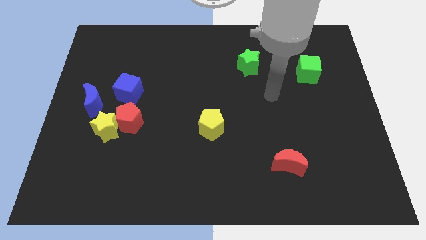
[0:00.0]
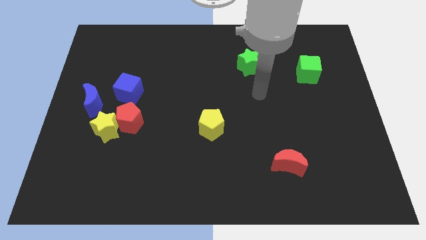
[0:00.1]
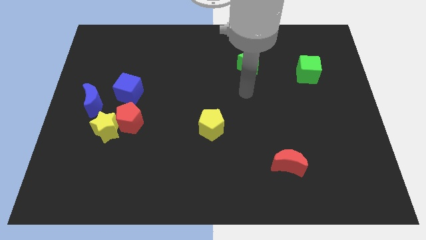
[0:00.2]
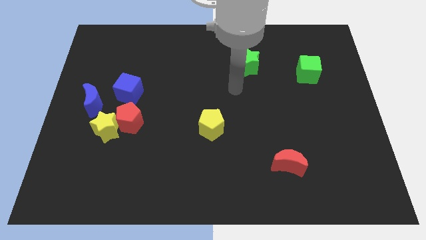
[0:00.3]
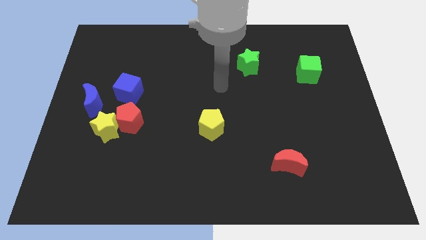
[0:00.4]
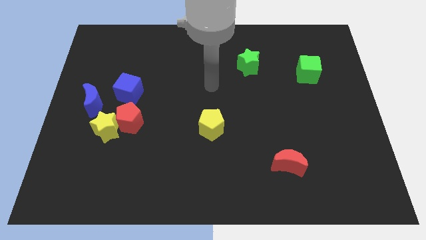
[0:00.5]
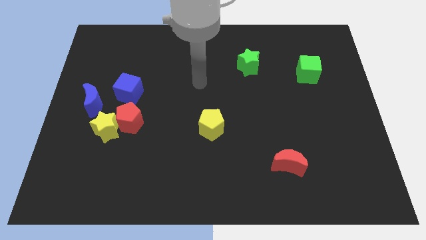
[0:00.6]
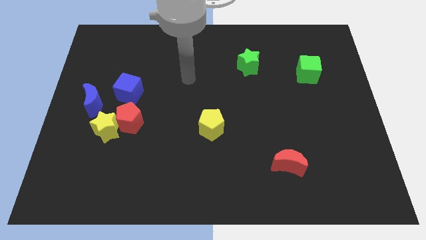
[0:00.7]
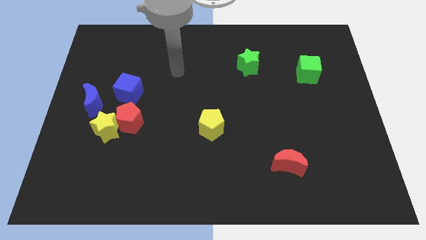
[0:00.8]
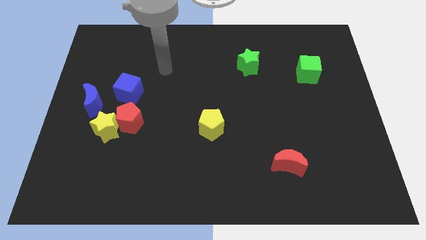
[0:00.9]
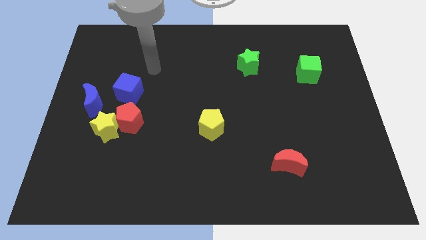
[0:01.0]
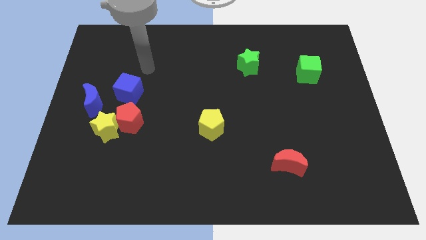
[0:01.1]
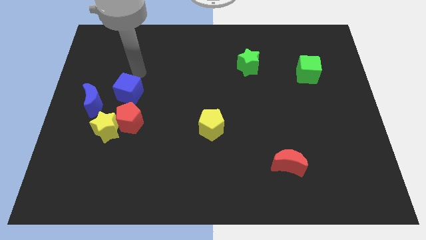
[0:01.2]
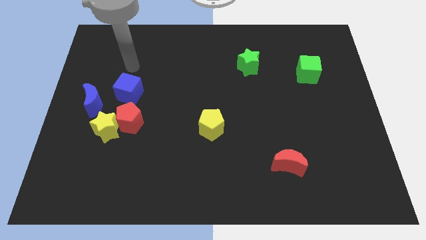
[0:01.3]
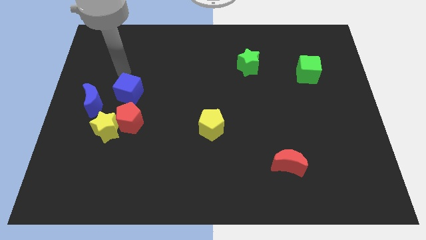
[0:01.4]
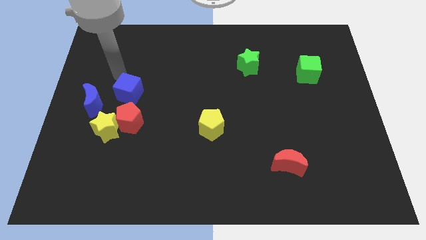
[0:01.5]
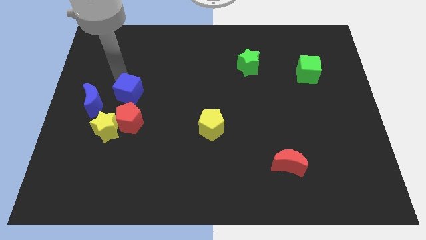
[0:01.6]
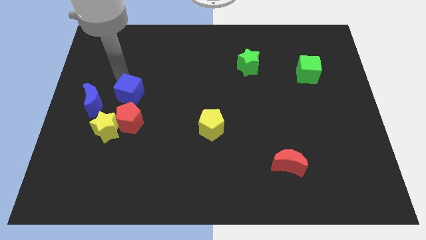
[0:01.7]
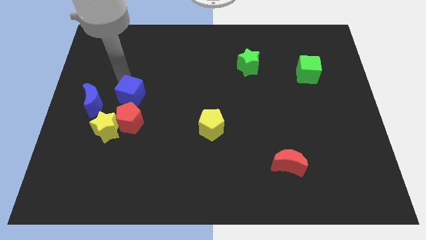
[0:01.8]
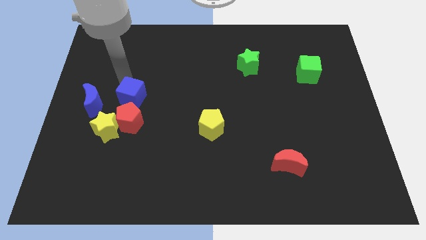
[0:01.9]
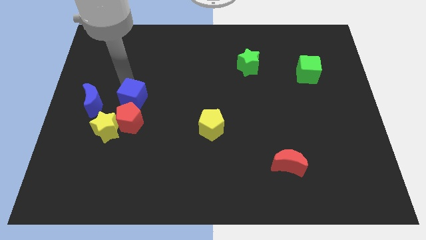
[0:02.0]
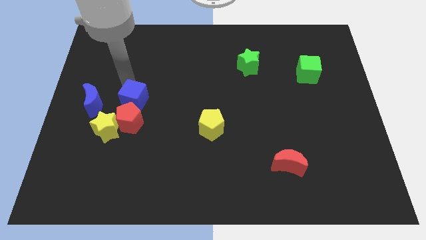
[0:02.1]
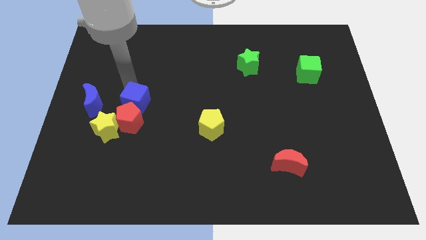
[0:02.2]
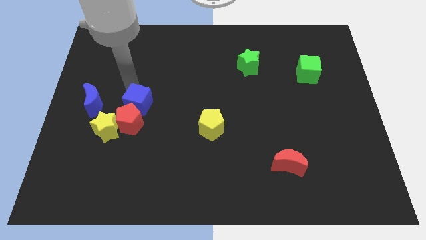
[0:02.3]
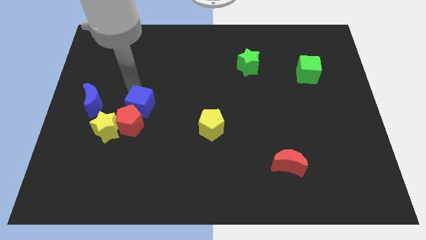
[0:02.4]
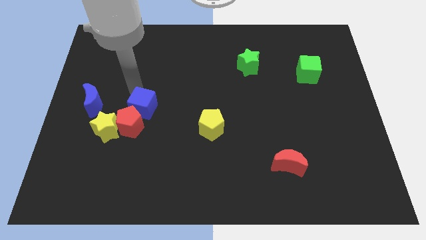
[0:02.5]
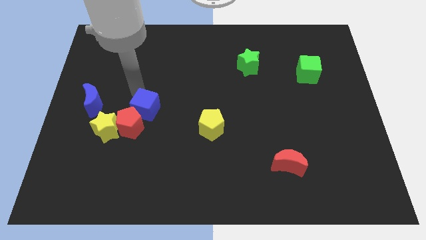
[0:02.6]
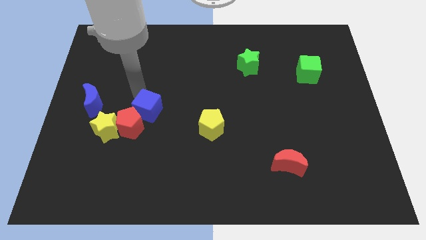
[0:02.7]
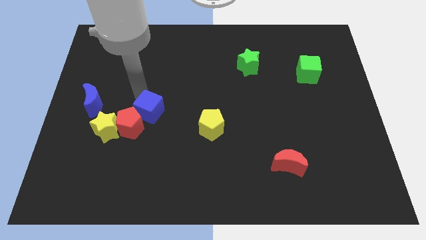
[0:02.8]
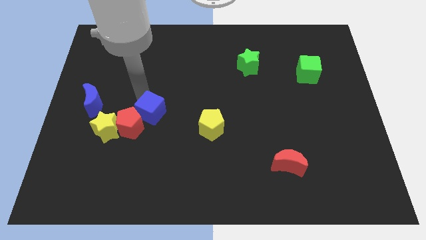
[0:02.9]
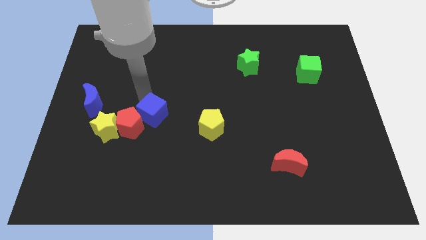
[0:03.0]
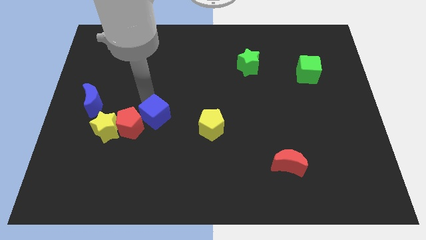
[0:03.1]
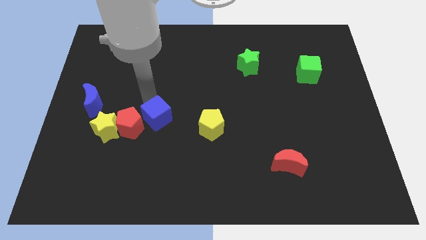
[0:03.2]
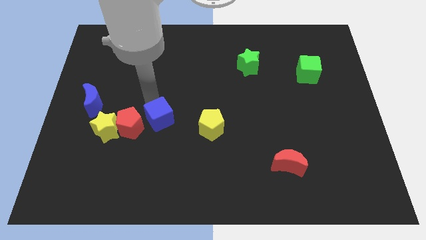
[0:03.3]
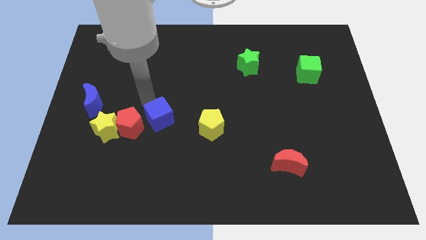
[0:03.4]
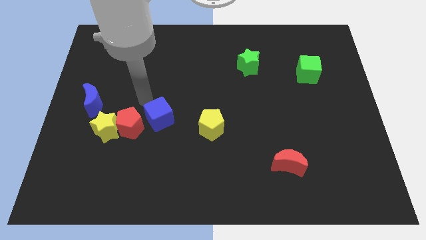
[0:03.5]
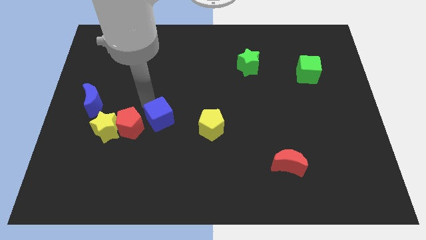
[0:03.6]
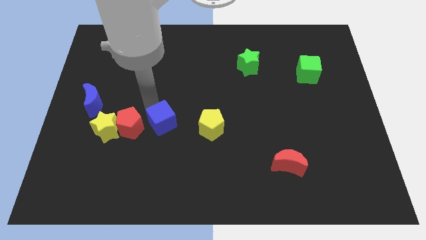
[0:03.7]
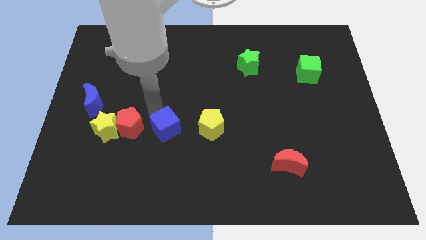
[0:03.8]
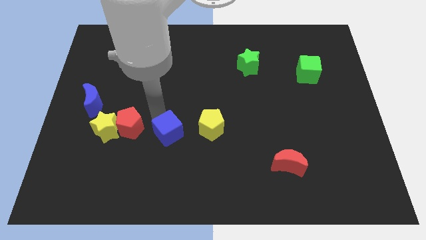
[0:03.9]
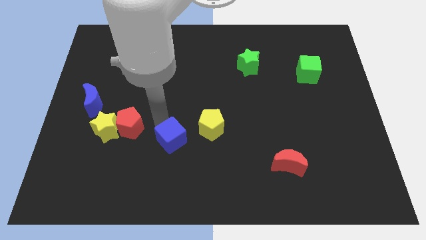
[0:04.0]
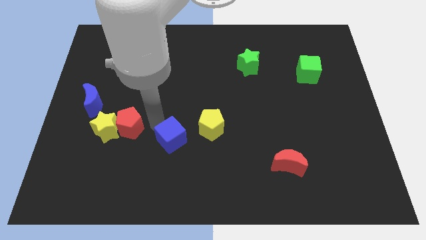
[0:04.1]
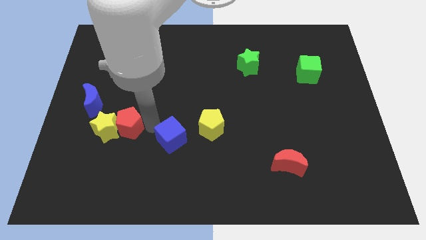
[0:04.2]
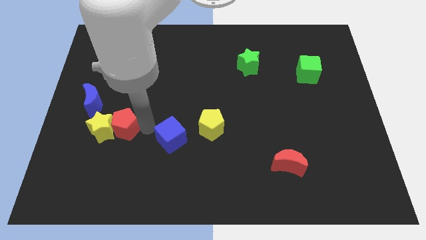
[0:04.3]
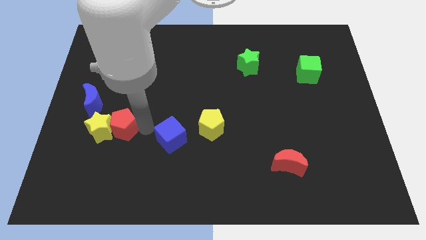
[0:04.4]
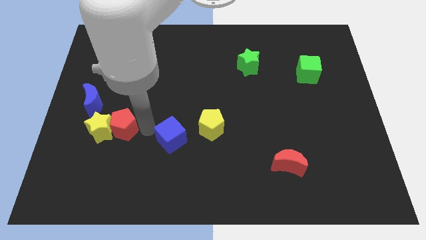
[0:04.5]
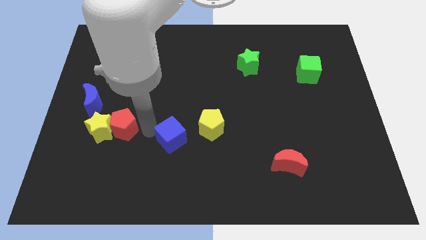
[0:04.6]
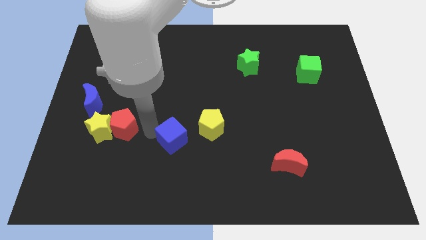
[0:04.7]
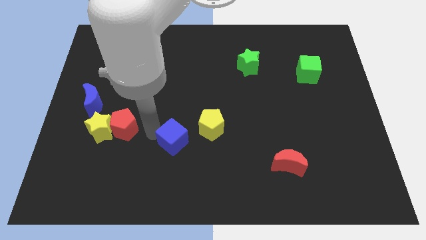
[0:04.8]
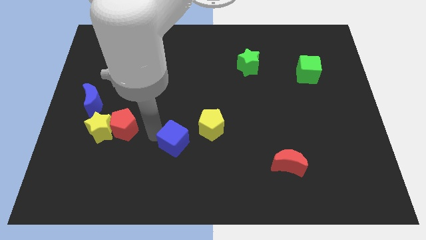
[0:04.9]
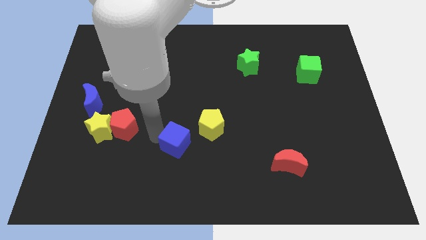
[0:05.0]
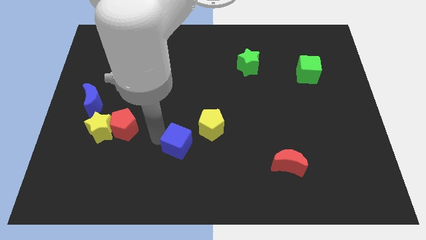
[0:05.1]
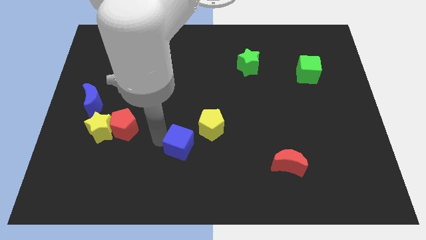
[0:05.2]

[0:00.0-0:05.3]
slide the blue cube down and to the right diagonally

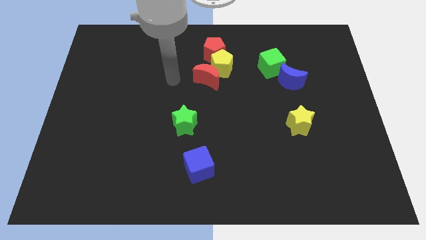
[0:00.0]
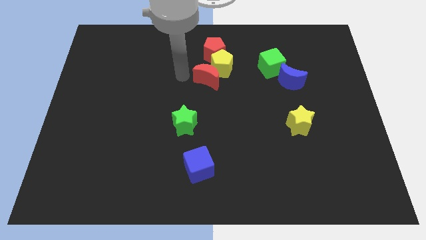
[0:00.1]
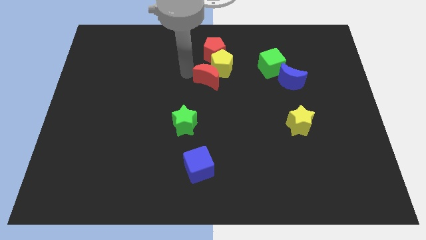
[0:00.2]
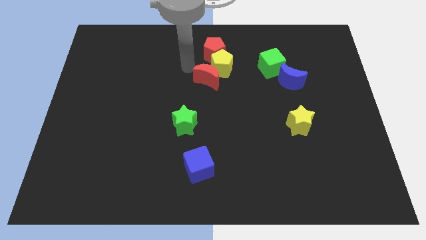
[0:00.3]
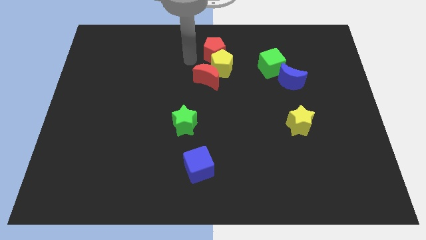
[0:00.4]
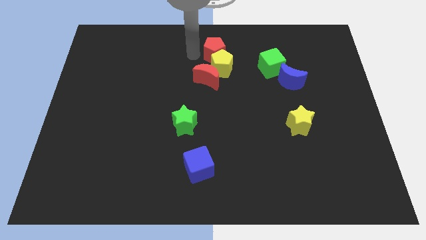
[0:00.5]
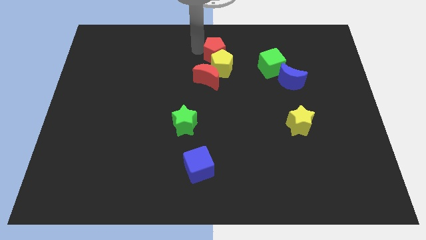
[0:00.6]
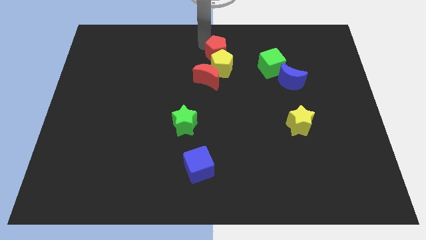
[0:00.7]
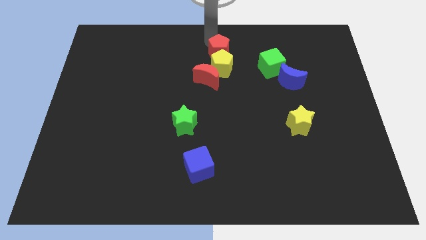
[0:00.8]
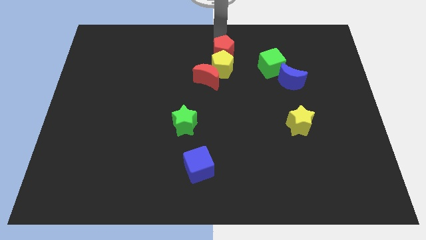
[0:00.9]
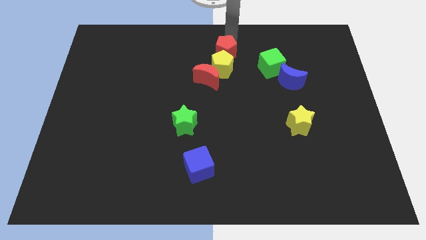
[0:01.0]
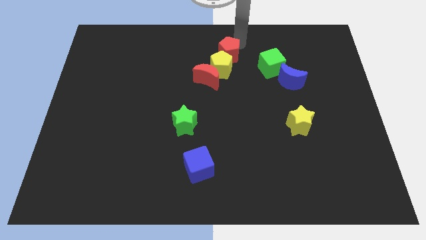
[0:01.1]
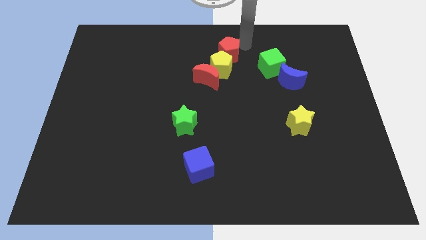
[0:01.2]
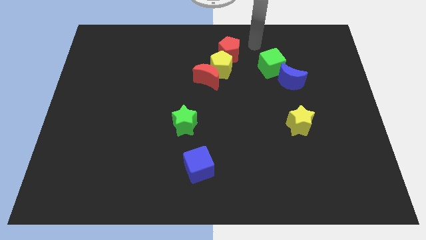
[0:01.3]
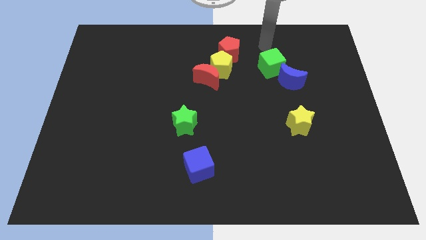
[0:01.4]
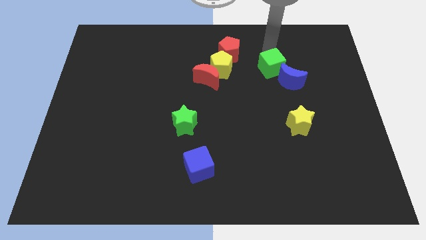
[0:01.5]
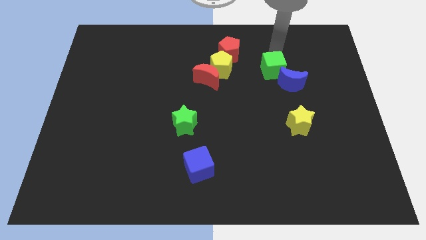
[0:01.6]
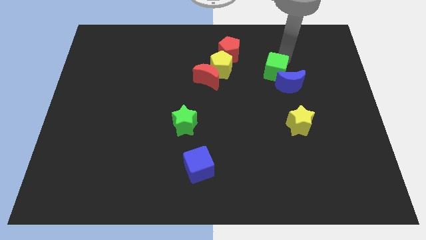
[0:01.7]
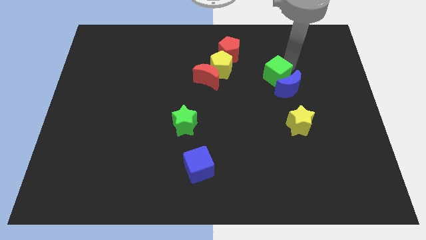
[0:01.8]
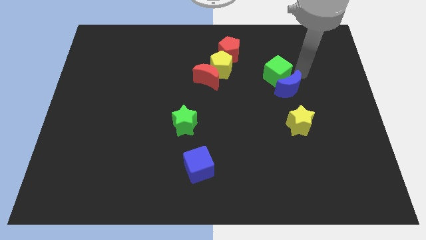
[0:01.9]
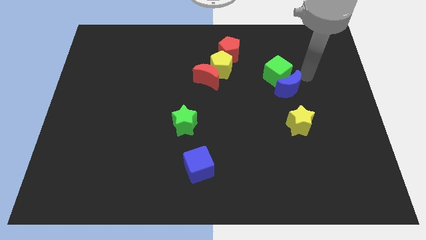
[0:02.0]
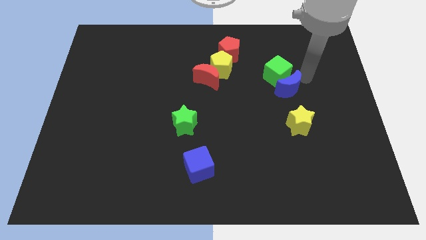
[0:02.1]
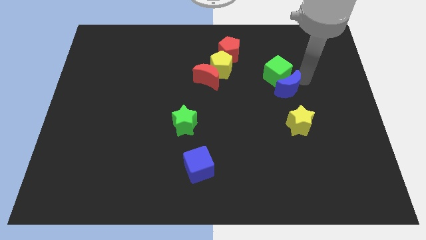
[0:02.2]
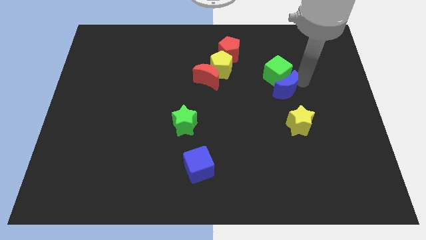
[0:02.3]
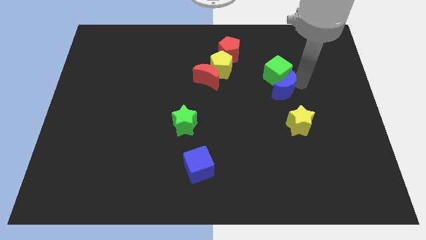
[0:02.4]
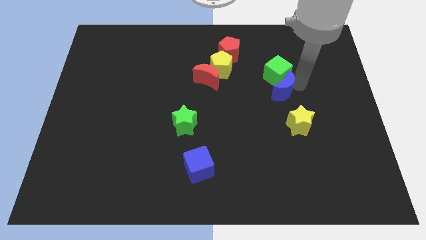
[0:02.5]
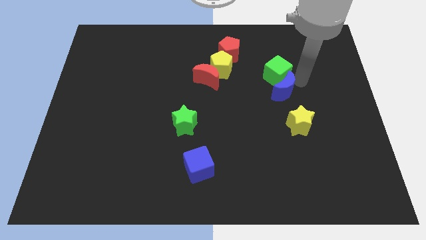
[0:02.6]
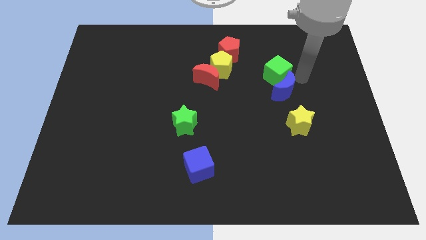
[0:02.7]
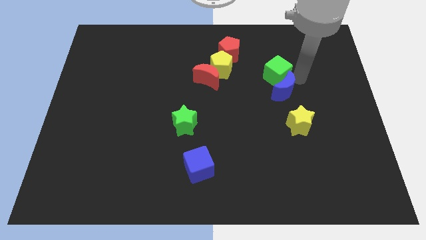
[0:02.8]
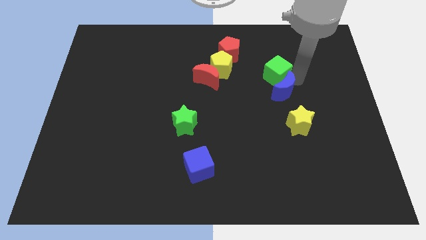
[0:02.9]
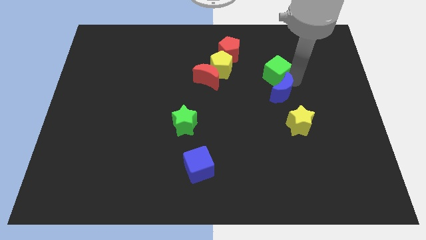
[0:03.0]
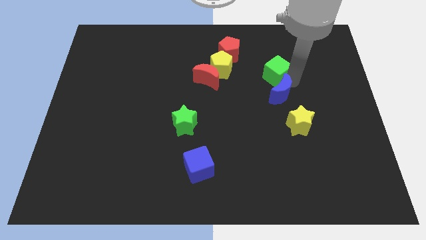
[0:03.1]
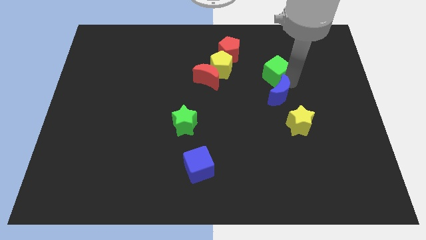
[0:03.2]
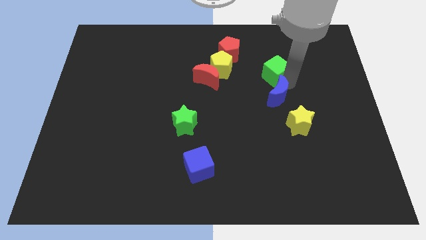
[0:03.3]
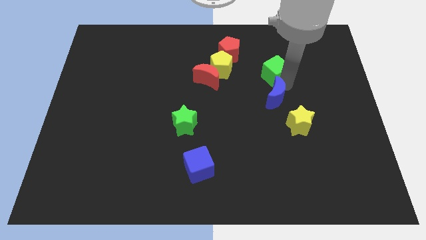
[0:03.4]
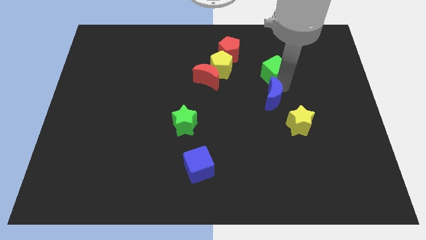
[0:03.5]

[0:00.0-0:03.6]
push the blue moon slightly downwards and left diagonally
